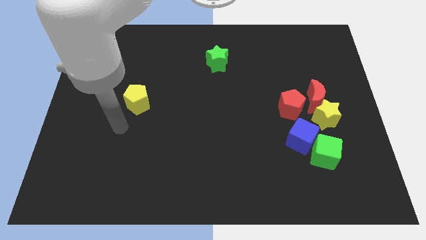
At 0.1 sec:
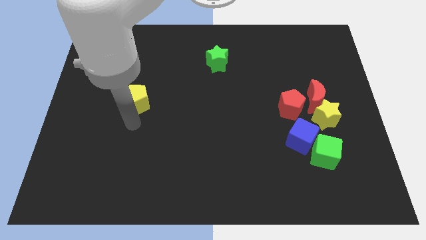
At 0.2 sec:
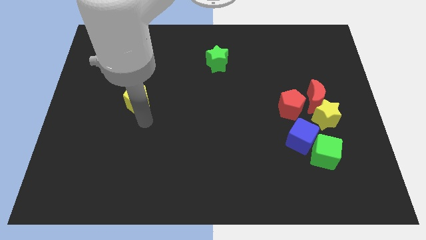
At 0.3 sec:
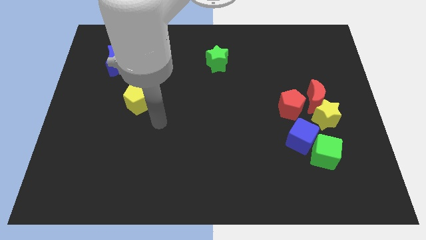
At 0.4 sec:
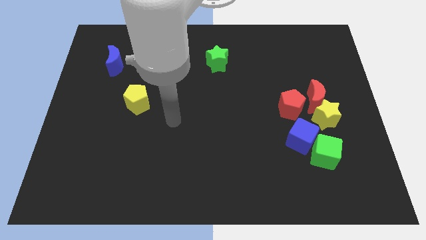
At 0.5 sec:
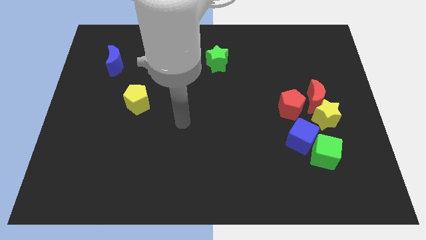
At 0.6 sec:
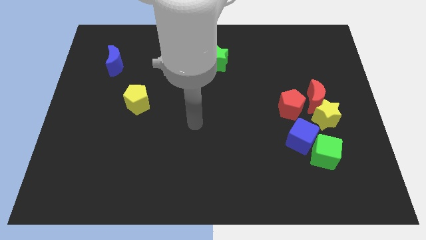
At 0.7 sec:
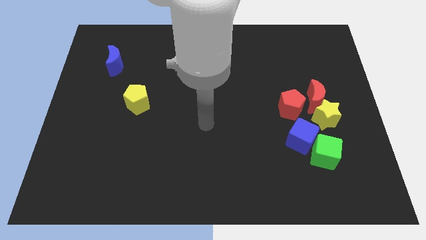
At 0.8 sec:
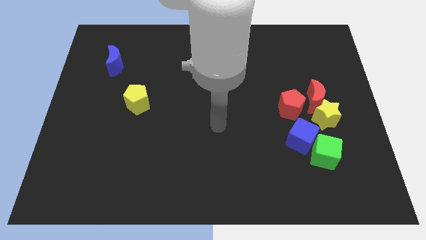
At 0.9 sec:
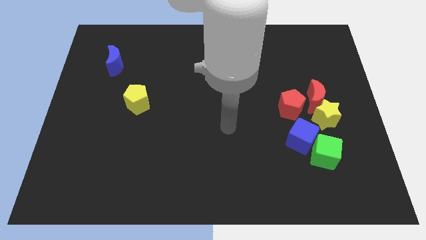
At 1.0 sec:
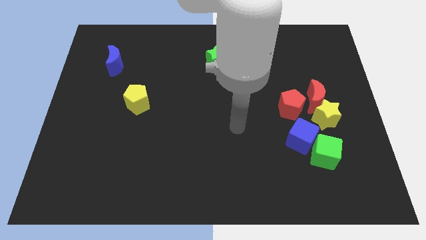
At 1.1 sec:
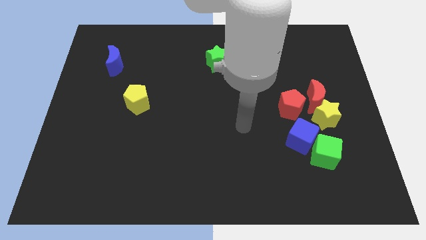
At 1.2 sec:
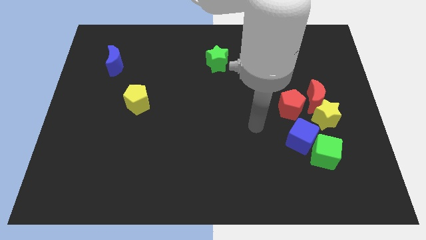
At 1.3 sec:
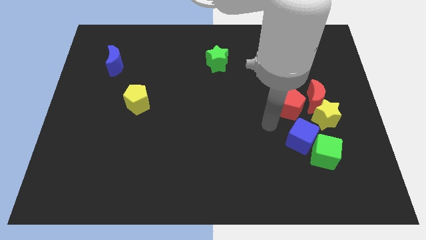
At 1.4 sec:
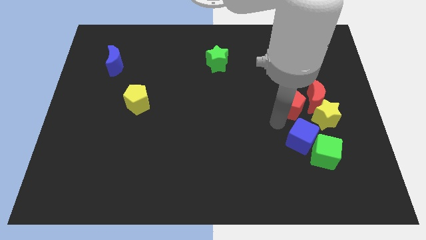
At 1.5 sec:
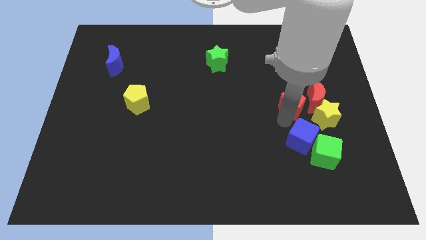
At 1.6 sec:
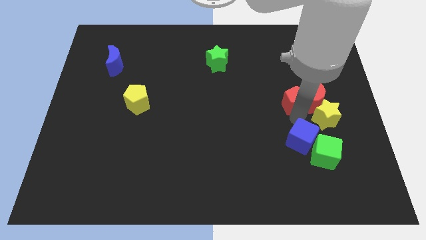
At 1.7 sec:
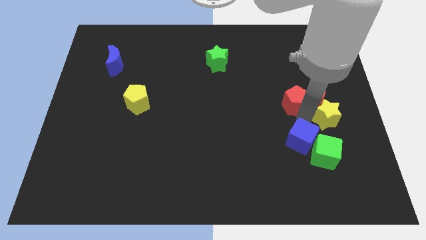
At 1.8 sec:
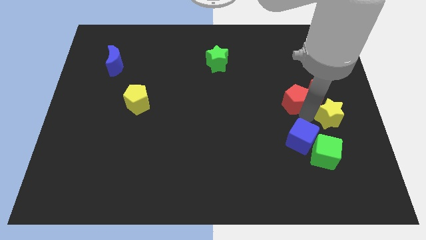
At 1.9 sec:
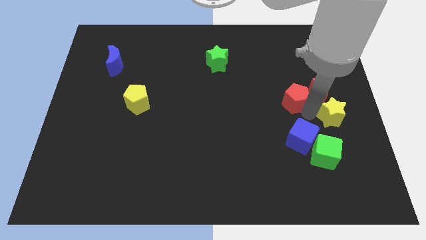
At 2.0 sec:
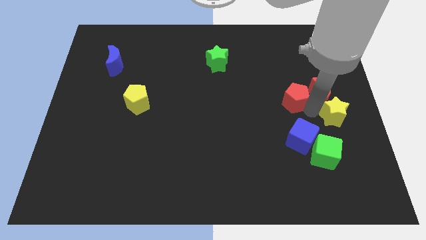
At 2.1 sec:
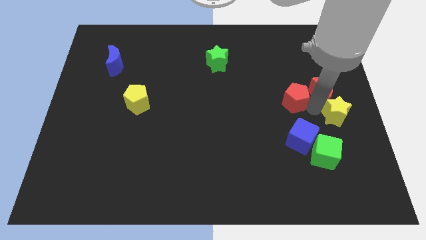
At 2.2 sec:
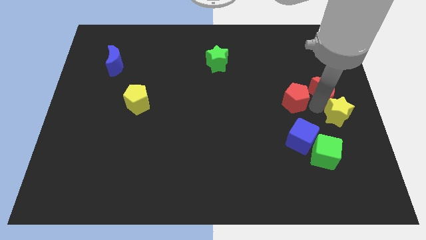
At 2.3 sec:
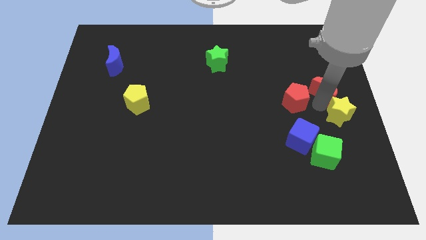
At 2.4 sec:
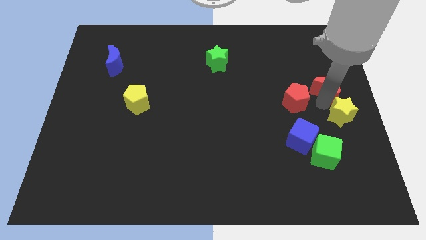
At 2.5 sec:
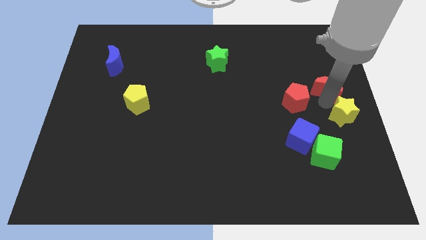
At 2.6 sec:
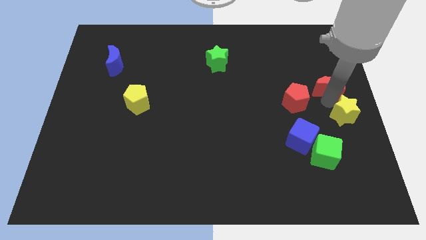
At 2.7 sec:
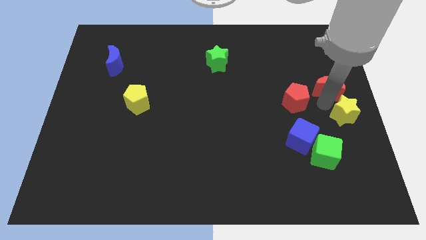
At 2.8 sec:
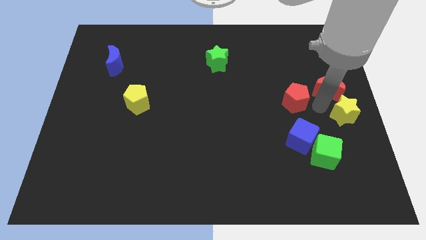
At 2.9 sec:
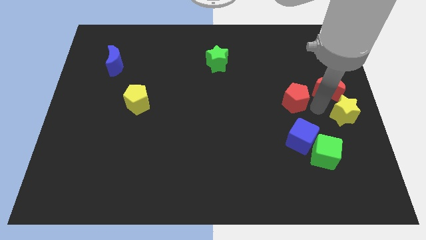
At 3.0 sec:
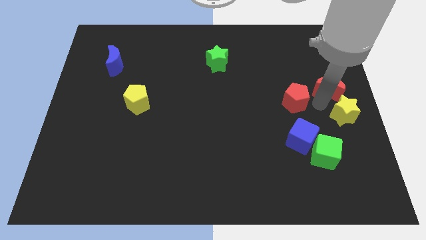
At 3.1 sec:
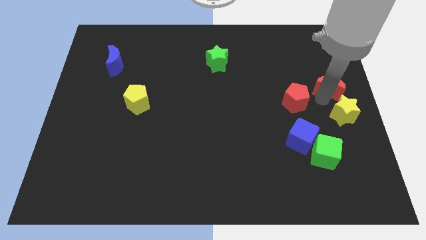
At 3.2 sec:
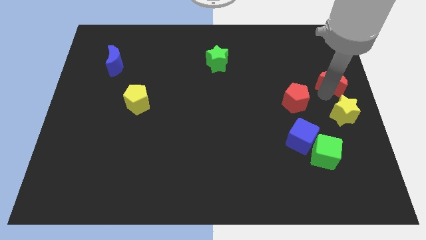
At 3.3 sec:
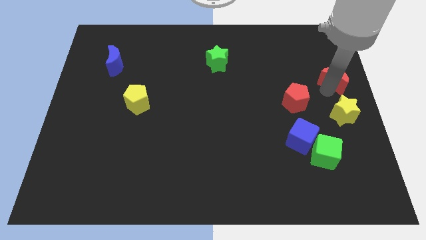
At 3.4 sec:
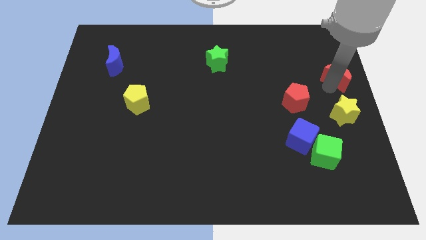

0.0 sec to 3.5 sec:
pull the red moon apart from the yellow star and red pentagon

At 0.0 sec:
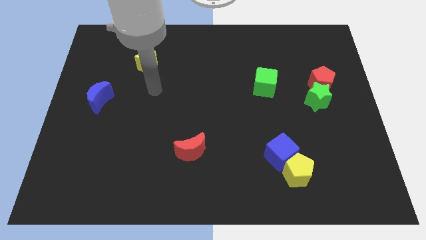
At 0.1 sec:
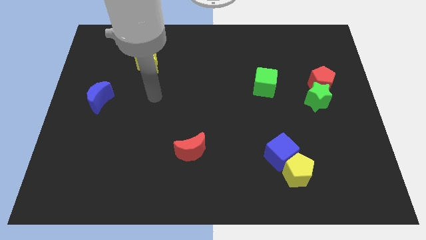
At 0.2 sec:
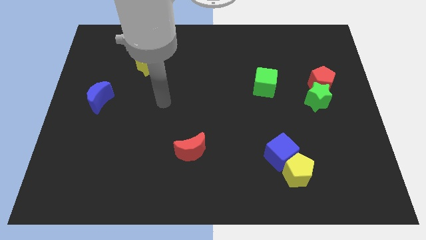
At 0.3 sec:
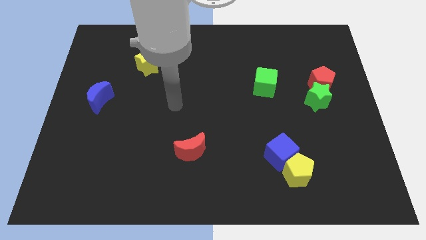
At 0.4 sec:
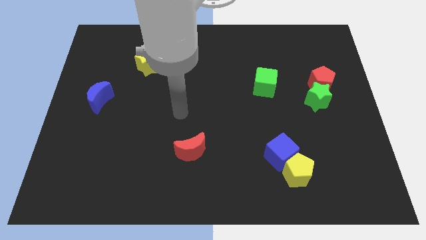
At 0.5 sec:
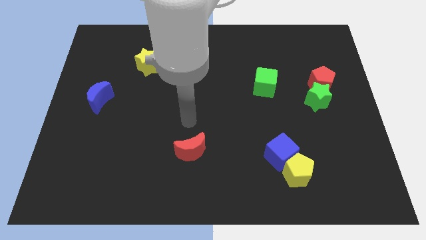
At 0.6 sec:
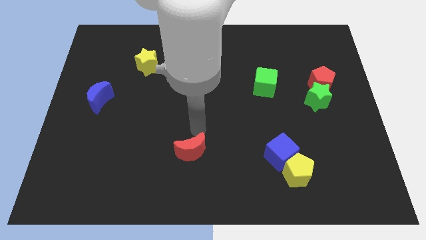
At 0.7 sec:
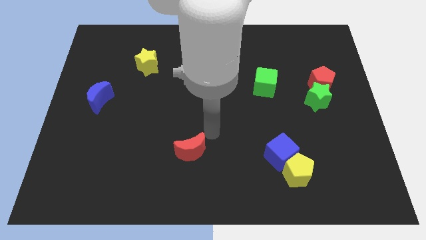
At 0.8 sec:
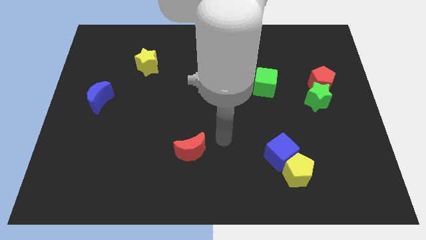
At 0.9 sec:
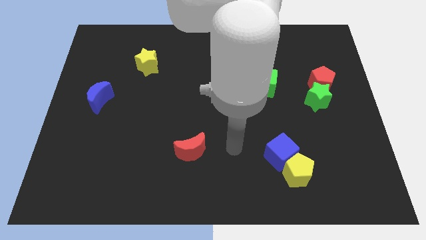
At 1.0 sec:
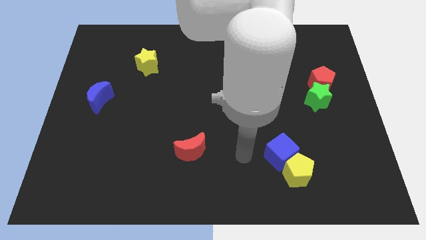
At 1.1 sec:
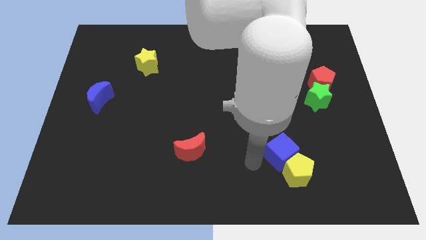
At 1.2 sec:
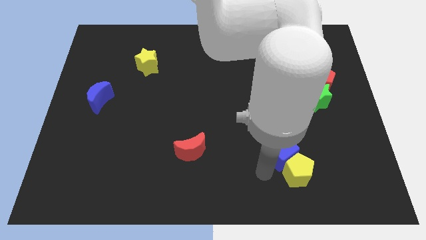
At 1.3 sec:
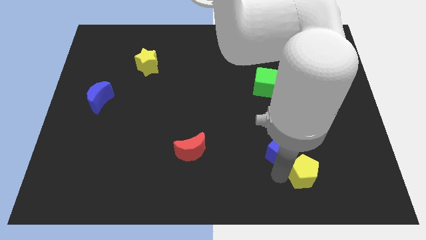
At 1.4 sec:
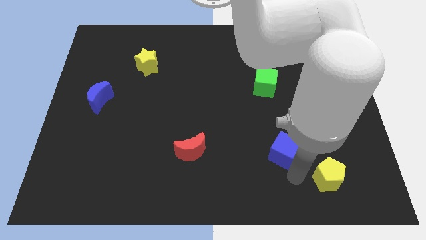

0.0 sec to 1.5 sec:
pull the blue cube apart from the yellow pentagon

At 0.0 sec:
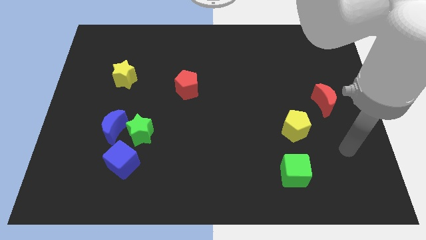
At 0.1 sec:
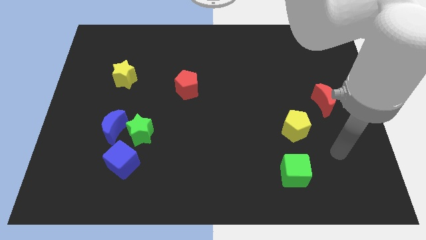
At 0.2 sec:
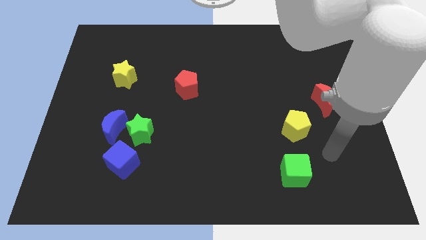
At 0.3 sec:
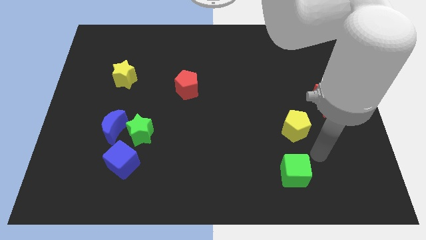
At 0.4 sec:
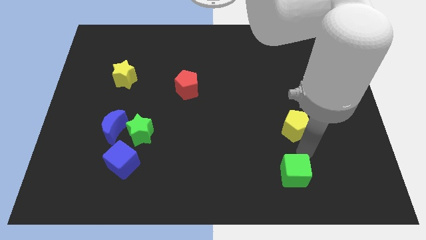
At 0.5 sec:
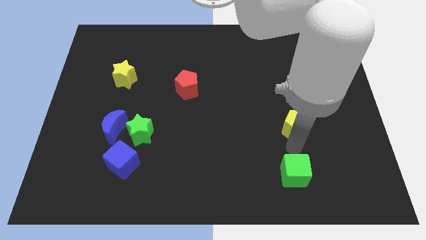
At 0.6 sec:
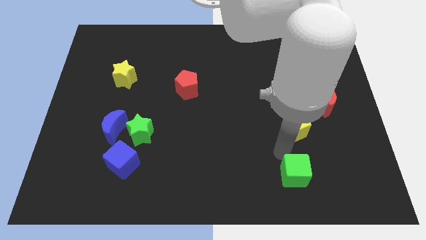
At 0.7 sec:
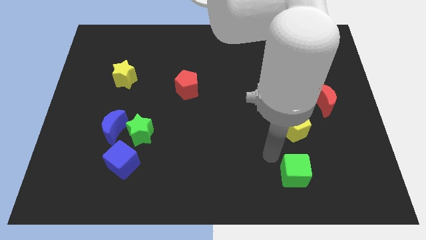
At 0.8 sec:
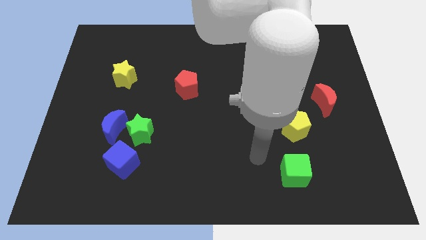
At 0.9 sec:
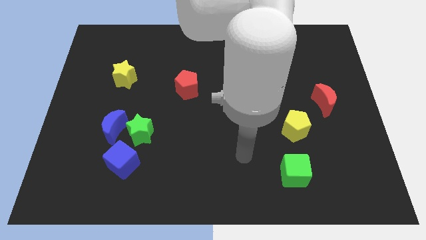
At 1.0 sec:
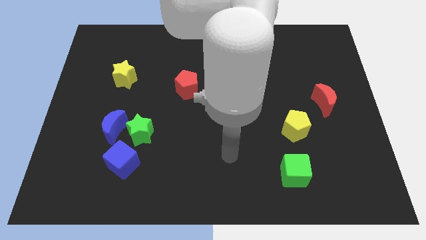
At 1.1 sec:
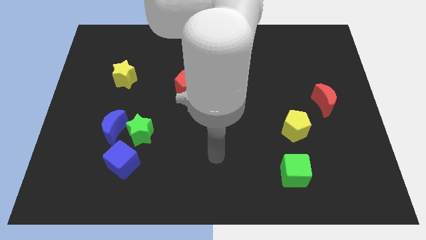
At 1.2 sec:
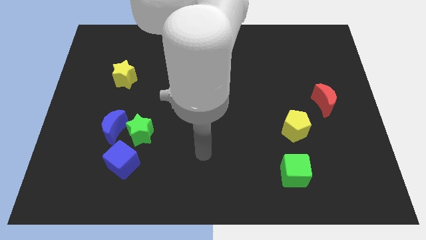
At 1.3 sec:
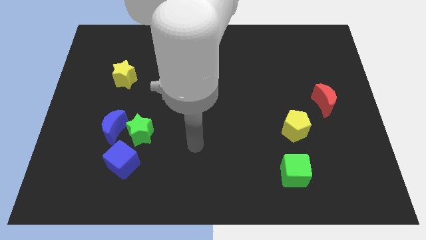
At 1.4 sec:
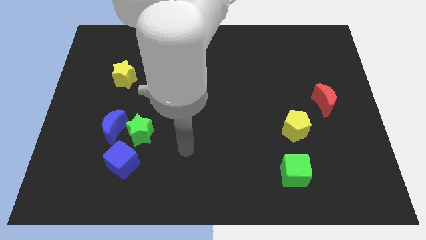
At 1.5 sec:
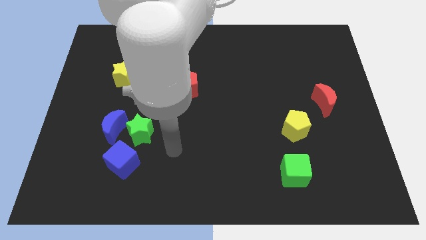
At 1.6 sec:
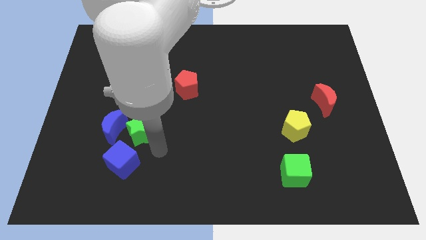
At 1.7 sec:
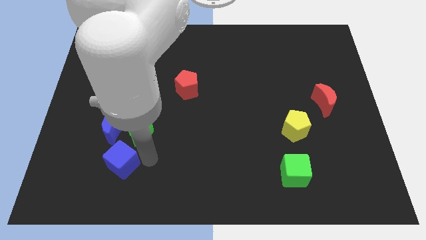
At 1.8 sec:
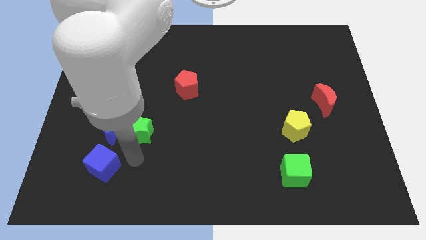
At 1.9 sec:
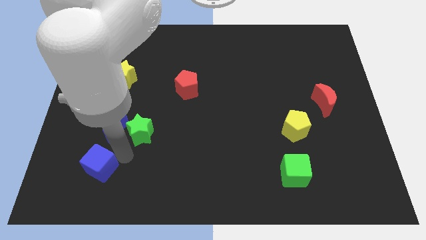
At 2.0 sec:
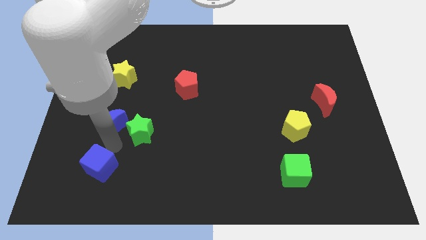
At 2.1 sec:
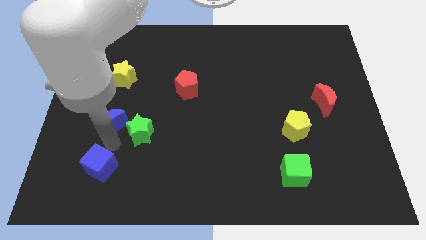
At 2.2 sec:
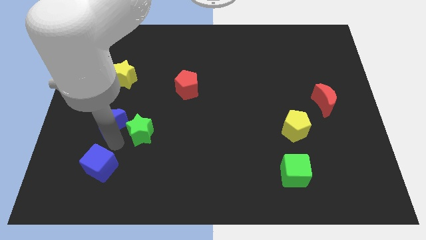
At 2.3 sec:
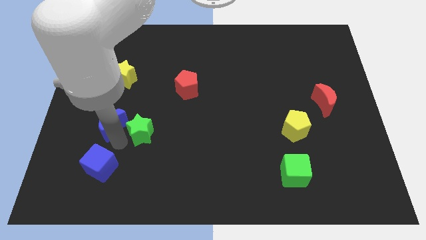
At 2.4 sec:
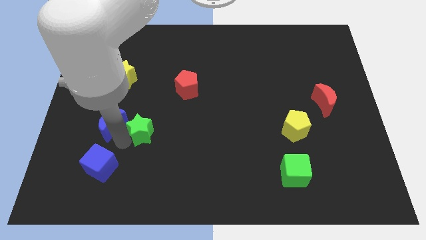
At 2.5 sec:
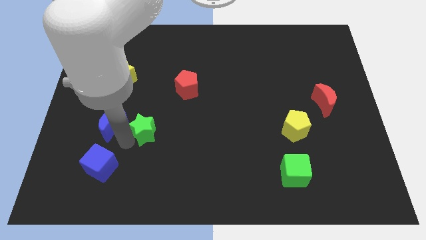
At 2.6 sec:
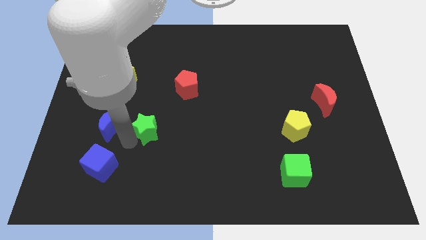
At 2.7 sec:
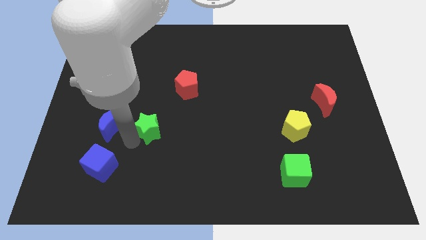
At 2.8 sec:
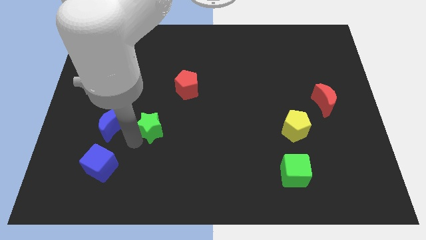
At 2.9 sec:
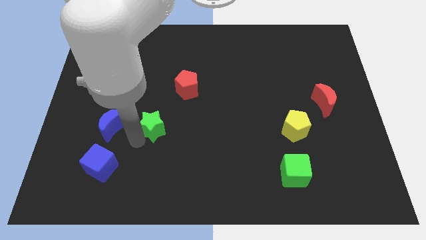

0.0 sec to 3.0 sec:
pull the green star apart from the blue moon and blue cube

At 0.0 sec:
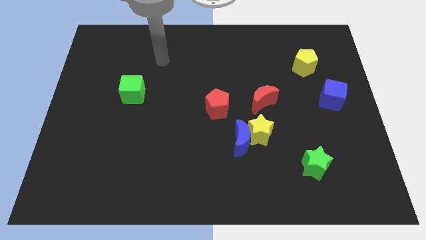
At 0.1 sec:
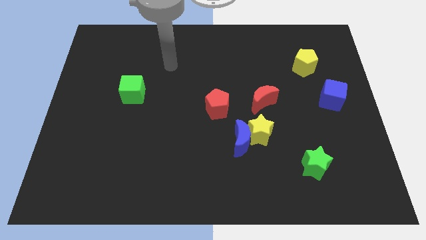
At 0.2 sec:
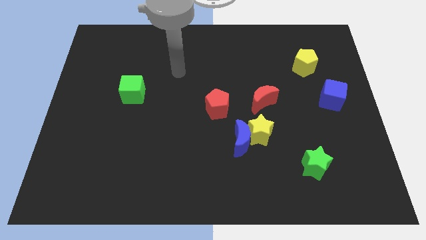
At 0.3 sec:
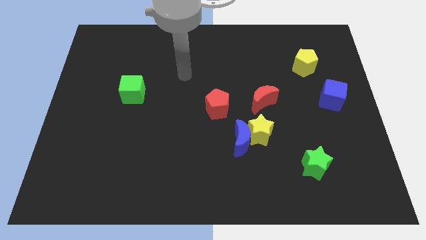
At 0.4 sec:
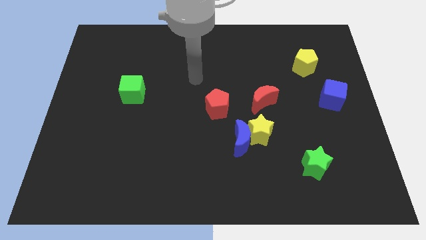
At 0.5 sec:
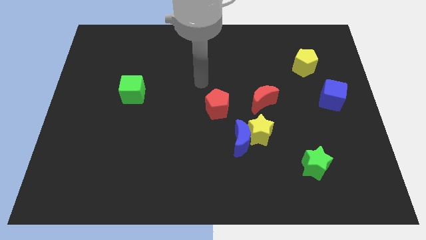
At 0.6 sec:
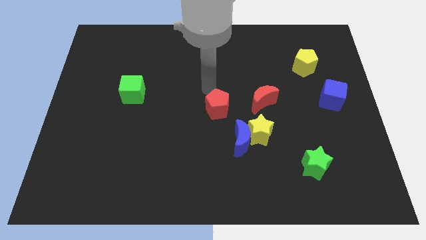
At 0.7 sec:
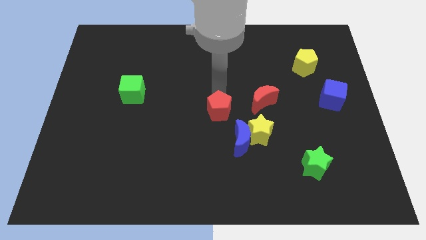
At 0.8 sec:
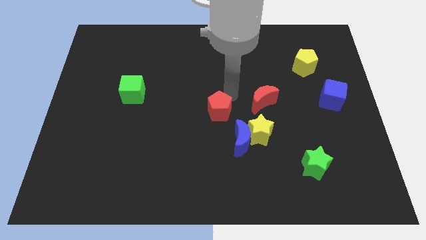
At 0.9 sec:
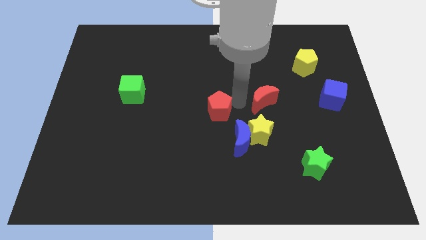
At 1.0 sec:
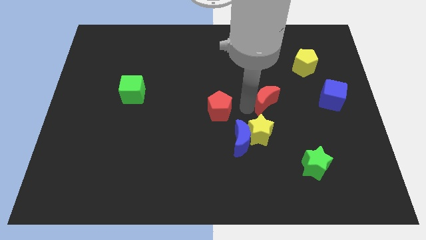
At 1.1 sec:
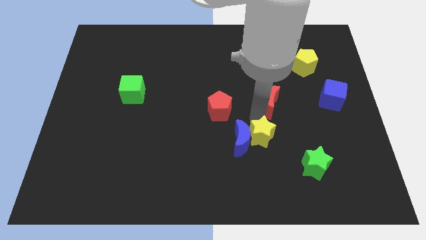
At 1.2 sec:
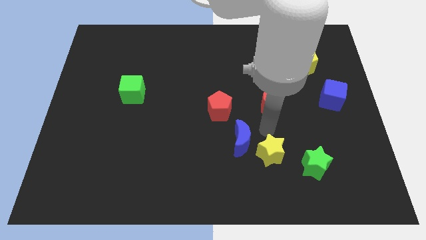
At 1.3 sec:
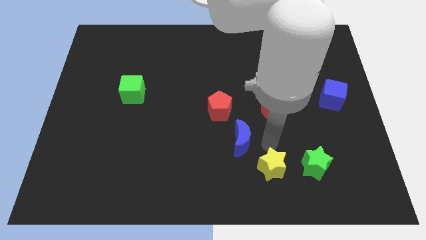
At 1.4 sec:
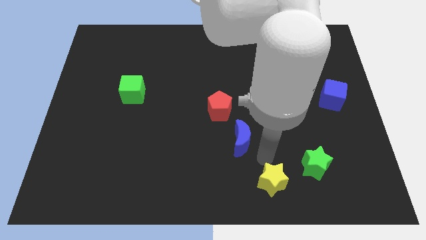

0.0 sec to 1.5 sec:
pull the blue moon apart from the yellow star
